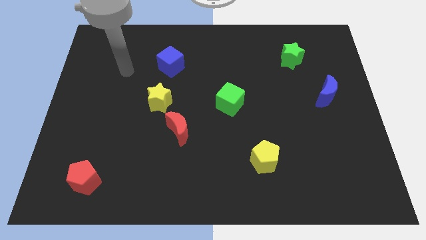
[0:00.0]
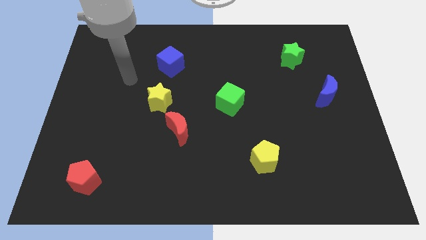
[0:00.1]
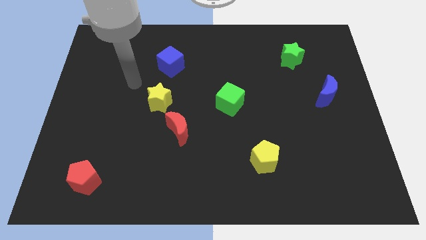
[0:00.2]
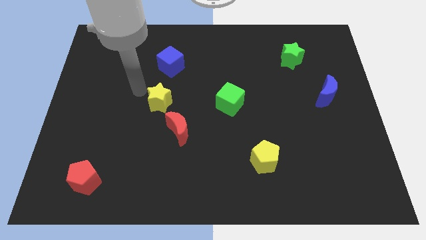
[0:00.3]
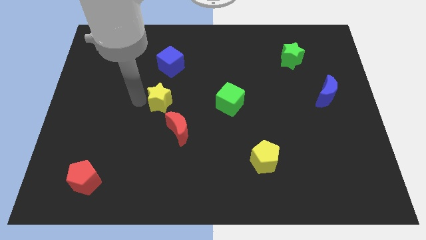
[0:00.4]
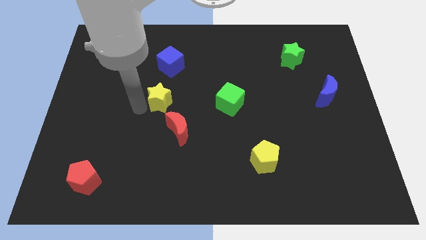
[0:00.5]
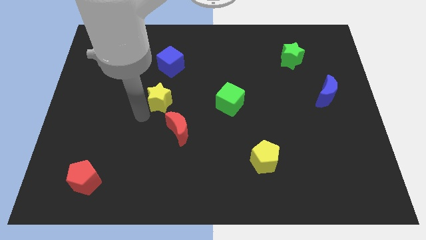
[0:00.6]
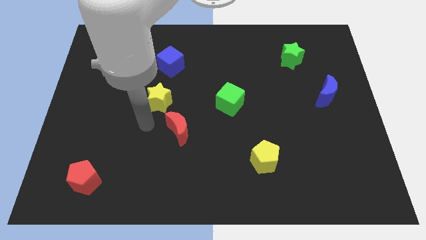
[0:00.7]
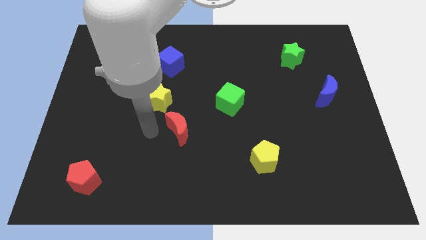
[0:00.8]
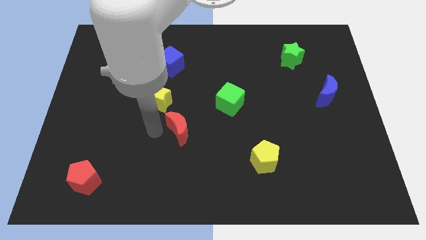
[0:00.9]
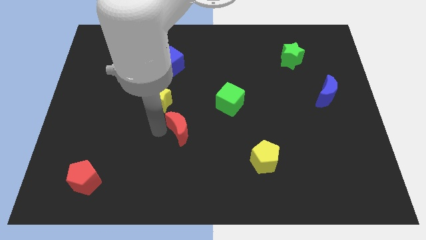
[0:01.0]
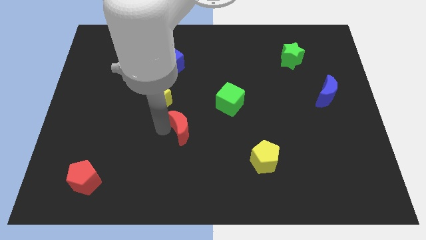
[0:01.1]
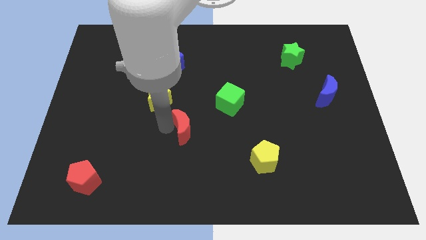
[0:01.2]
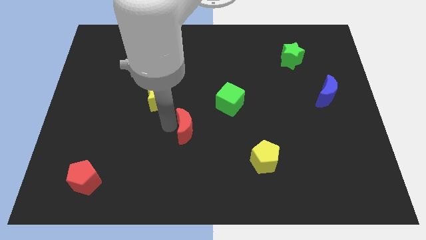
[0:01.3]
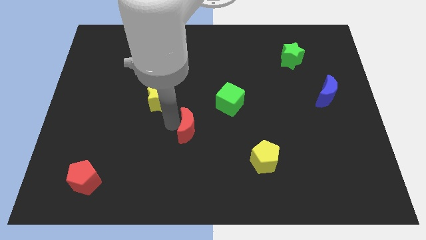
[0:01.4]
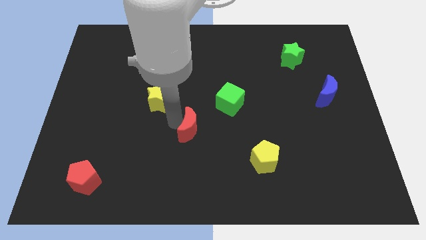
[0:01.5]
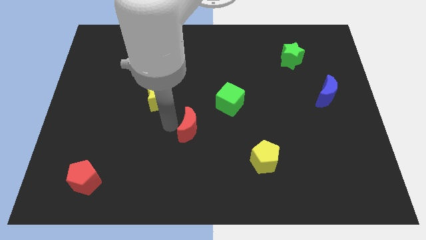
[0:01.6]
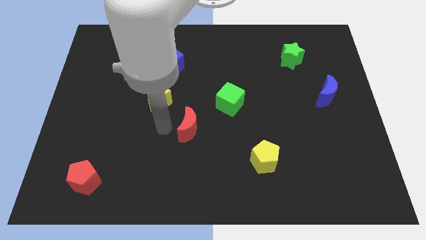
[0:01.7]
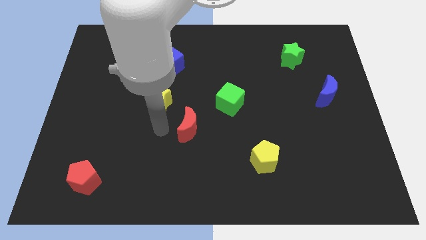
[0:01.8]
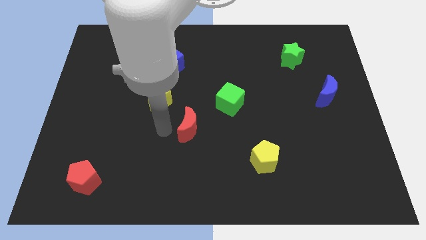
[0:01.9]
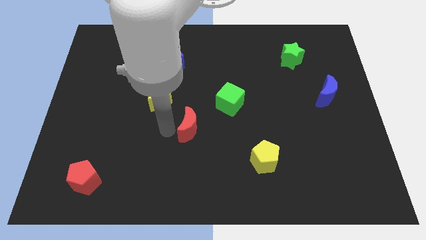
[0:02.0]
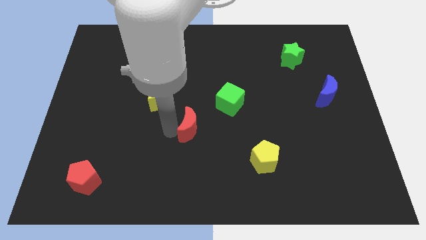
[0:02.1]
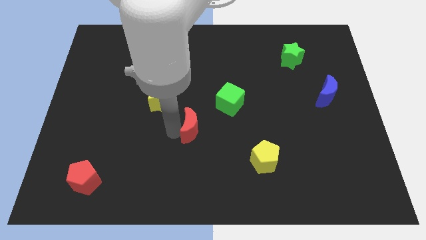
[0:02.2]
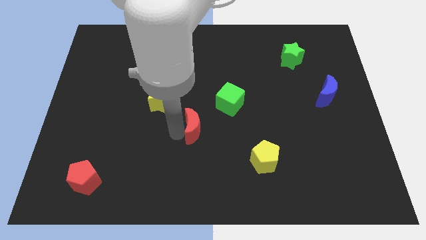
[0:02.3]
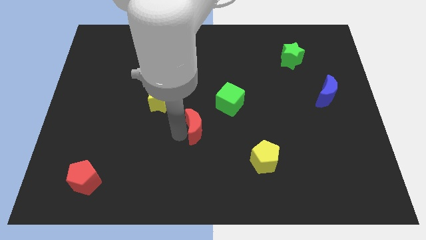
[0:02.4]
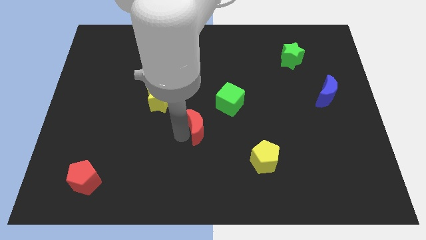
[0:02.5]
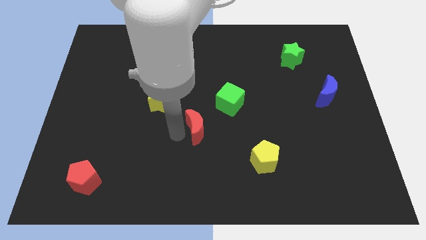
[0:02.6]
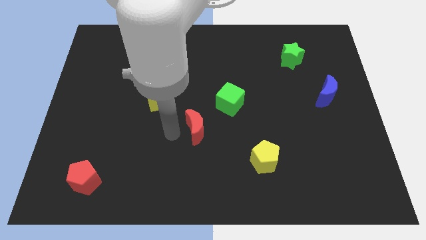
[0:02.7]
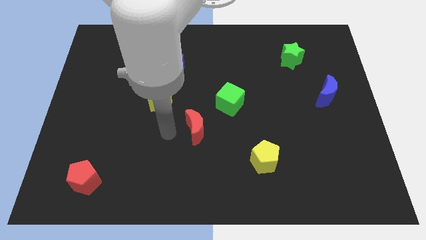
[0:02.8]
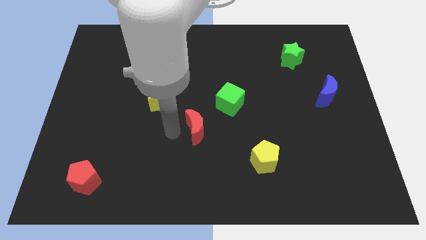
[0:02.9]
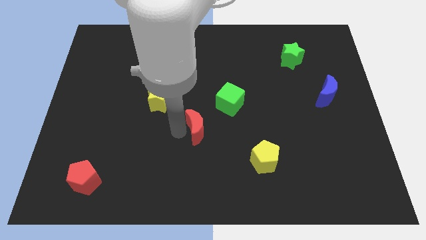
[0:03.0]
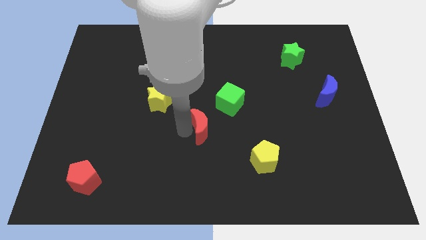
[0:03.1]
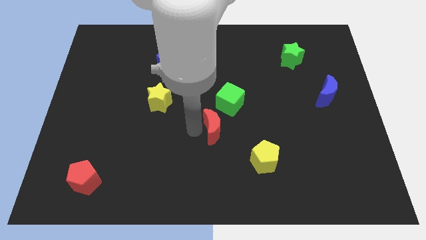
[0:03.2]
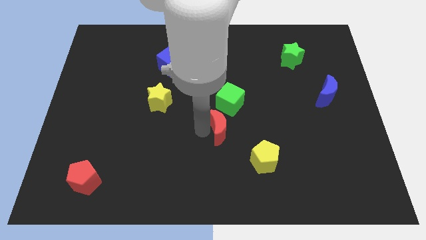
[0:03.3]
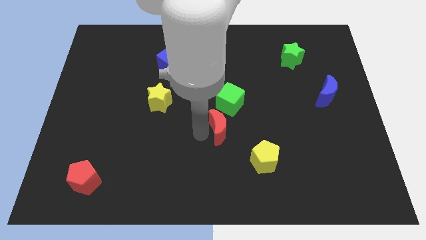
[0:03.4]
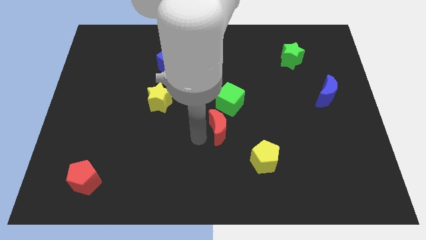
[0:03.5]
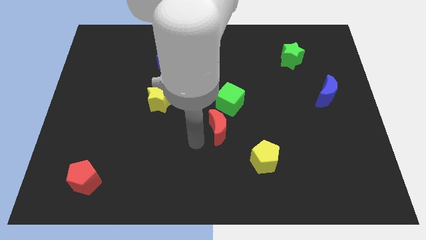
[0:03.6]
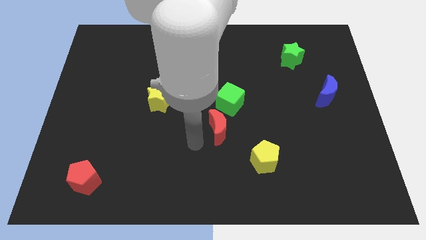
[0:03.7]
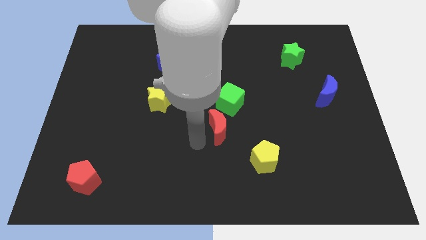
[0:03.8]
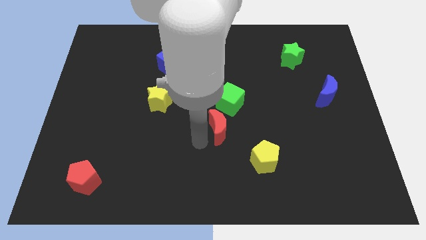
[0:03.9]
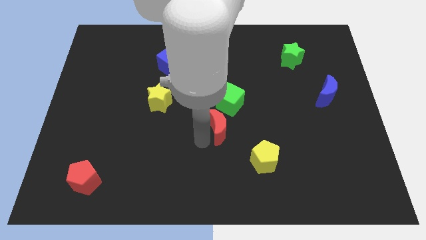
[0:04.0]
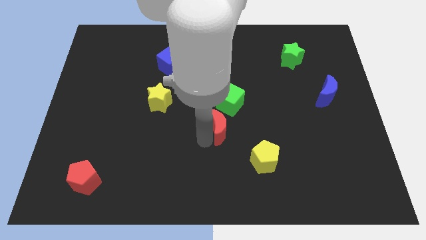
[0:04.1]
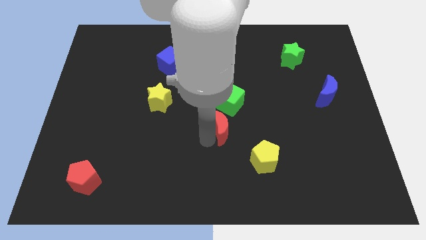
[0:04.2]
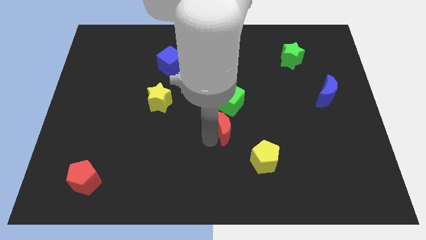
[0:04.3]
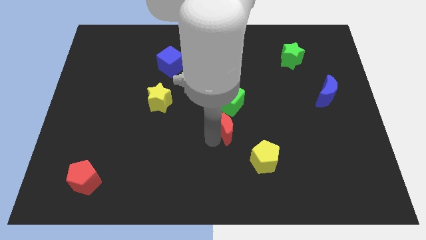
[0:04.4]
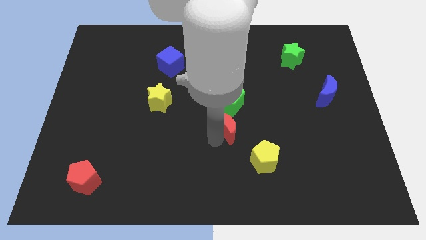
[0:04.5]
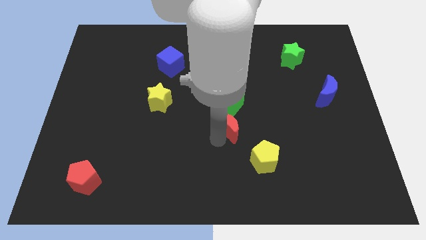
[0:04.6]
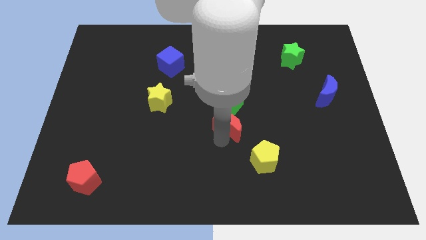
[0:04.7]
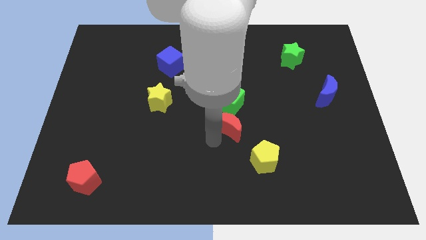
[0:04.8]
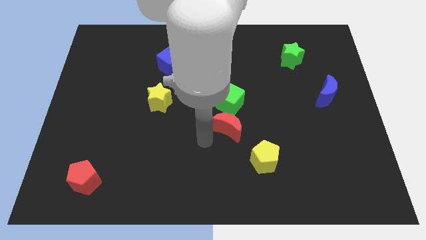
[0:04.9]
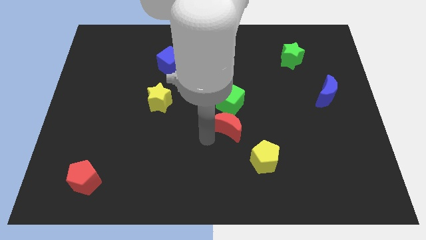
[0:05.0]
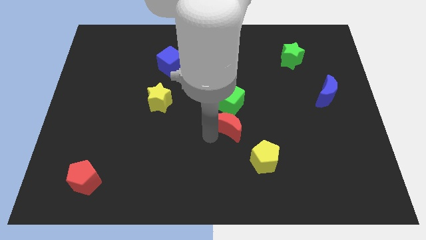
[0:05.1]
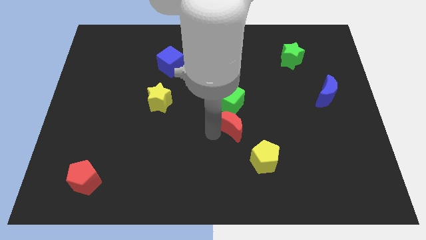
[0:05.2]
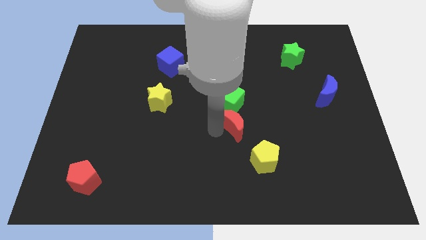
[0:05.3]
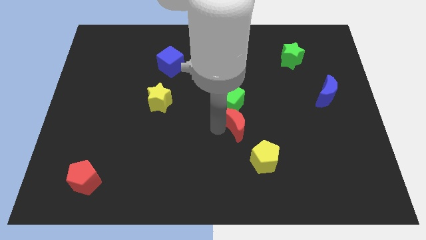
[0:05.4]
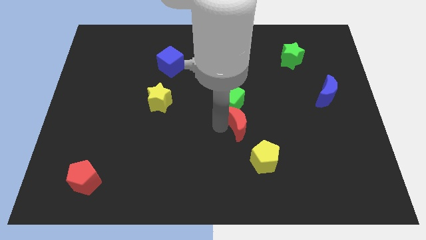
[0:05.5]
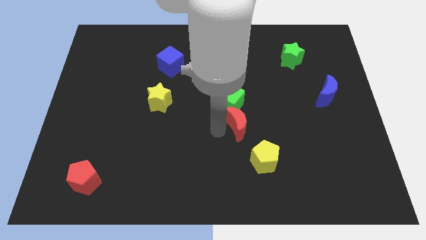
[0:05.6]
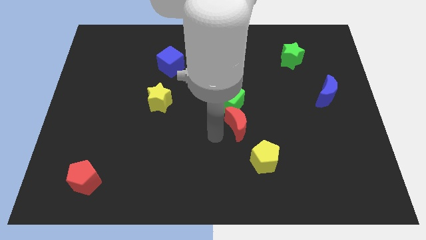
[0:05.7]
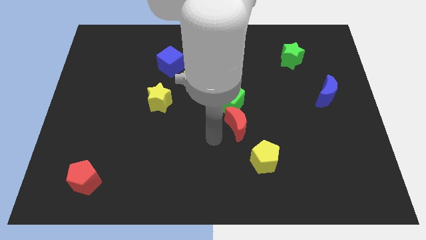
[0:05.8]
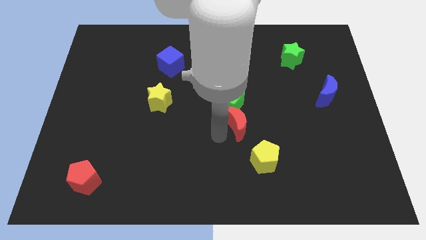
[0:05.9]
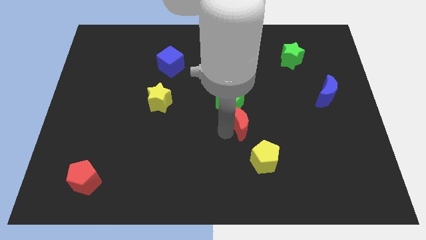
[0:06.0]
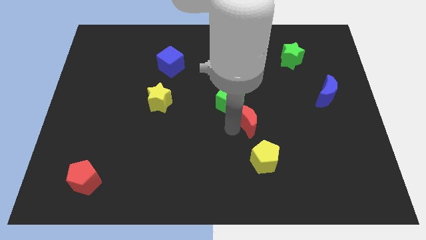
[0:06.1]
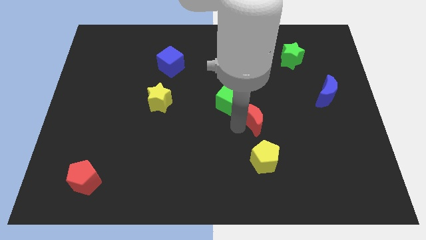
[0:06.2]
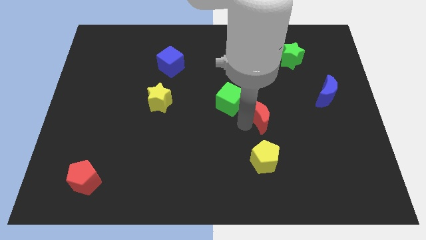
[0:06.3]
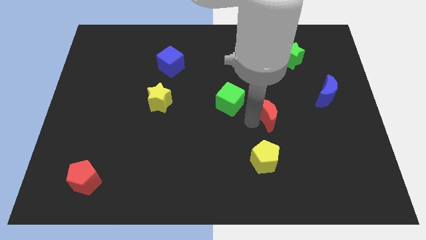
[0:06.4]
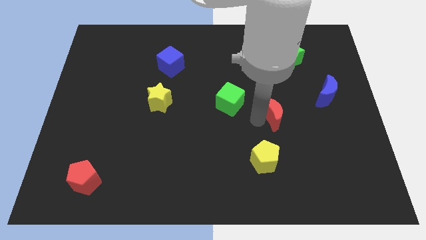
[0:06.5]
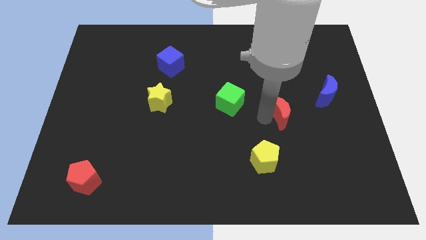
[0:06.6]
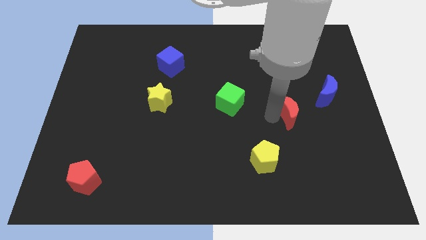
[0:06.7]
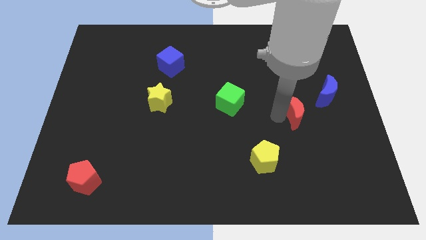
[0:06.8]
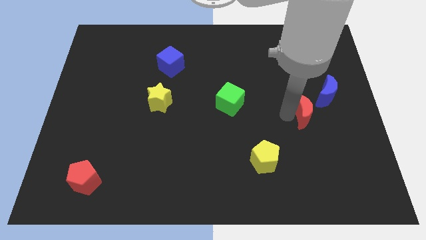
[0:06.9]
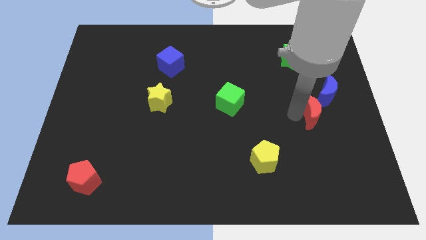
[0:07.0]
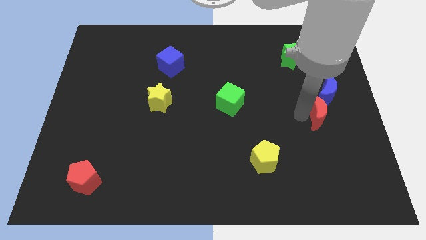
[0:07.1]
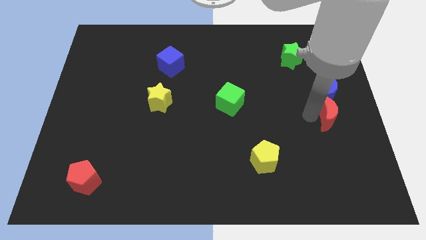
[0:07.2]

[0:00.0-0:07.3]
slide the red moon to the right side
